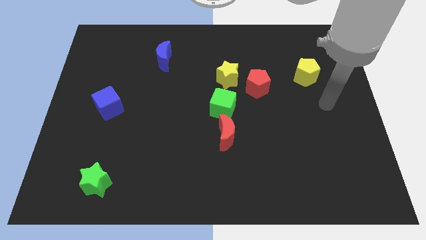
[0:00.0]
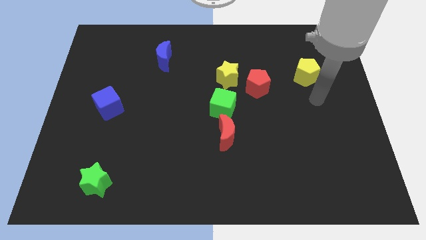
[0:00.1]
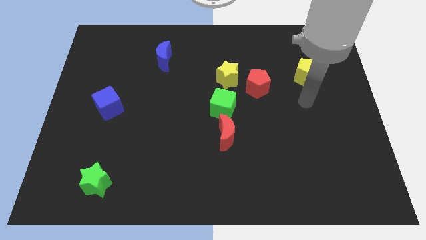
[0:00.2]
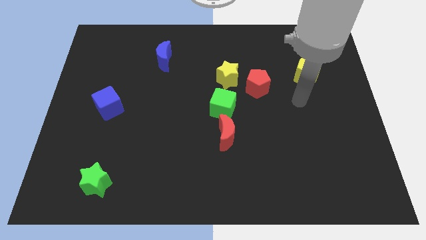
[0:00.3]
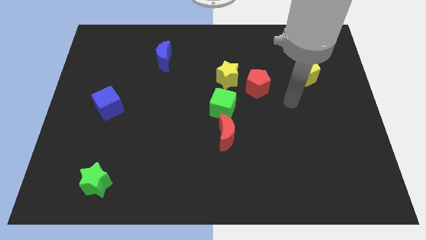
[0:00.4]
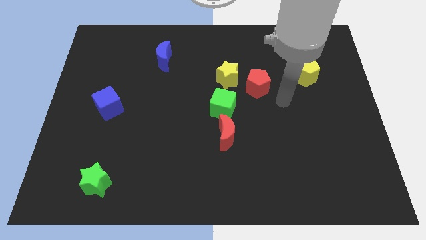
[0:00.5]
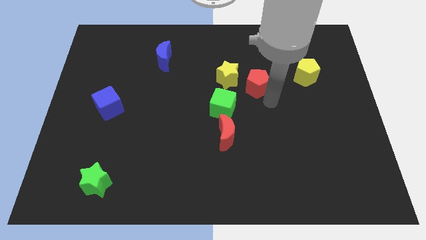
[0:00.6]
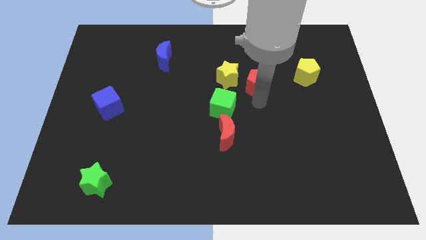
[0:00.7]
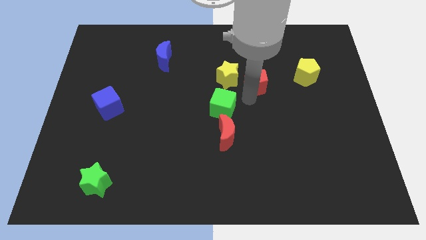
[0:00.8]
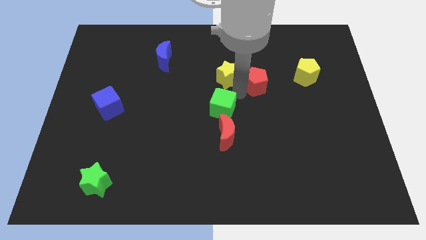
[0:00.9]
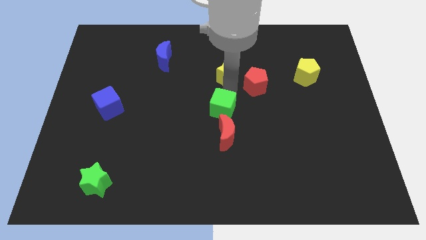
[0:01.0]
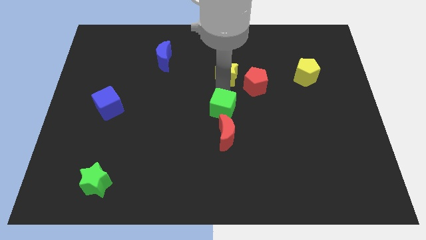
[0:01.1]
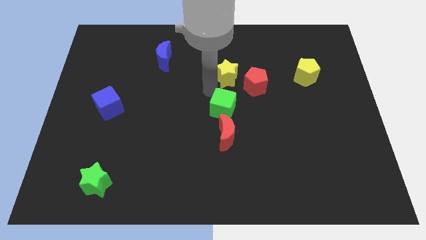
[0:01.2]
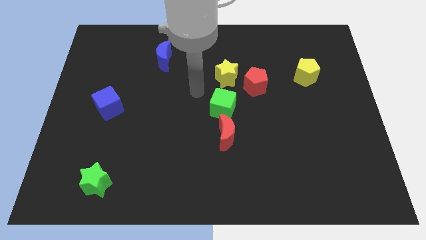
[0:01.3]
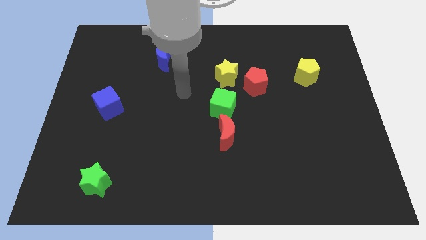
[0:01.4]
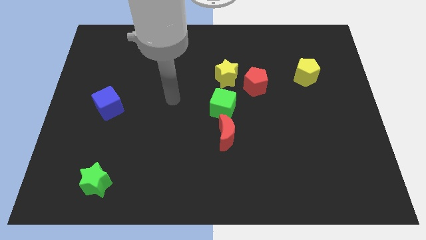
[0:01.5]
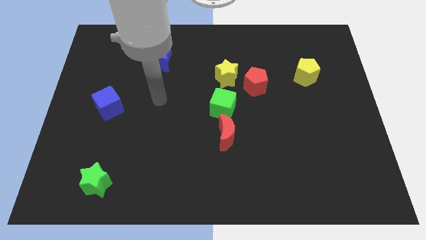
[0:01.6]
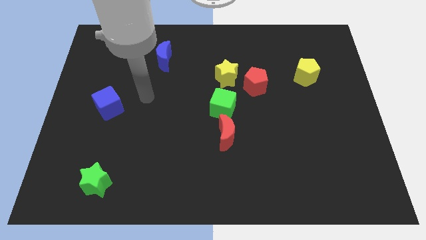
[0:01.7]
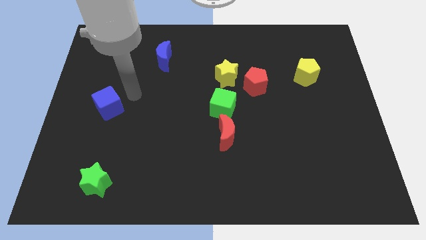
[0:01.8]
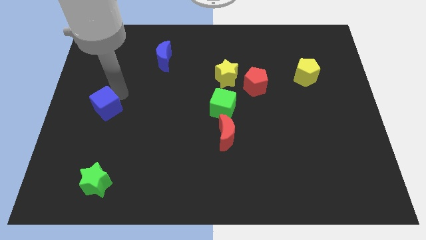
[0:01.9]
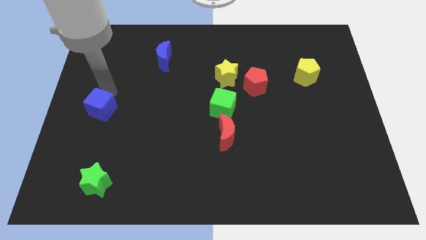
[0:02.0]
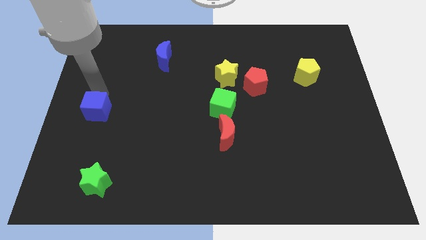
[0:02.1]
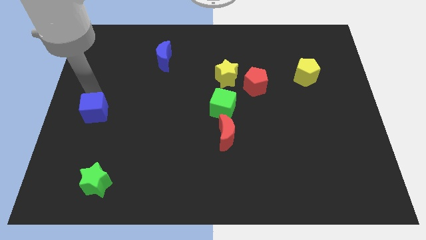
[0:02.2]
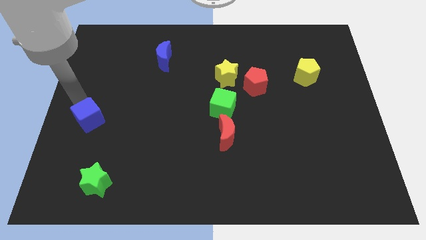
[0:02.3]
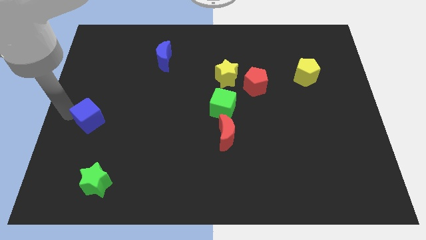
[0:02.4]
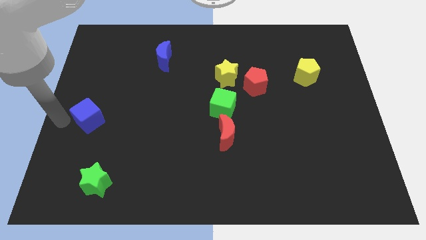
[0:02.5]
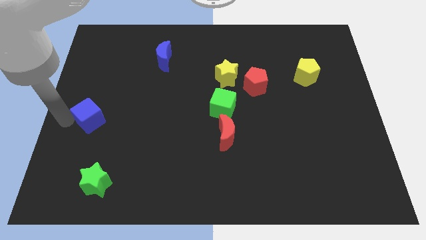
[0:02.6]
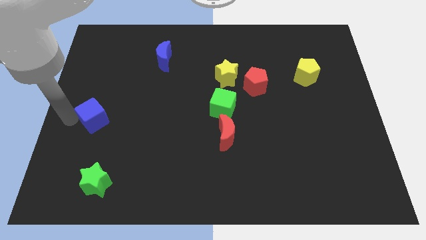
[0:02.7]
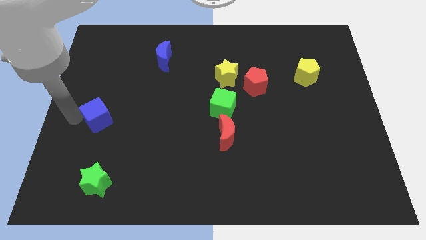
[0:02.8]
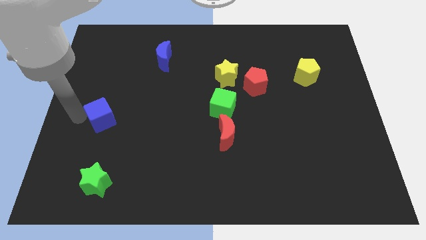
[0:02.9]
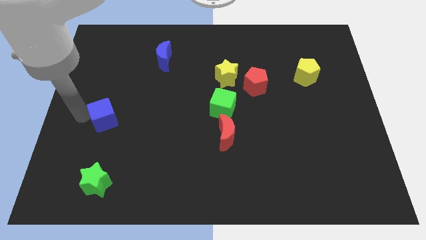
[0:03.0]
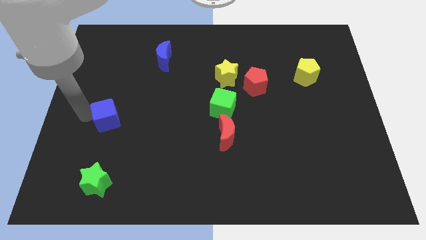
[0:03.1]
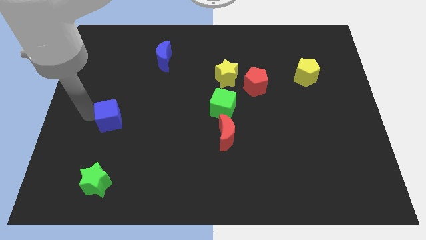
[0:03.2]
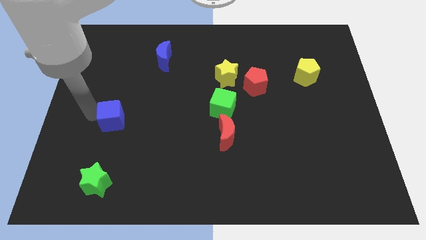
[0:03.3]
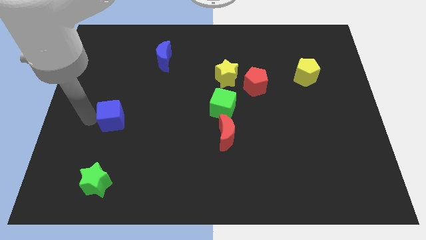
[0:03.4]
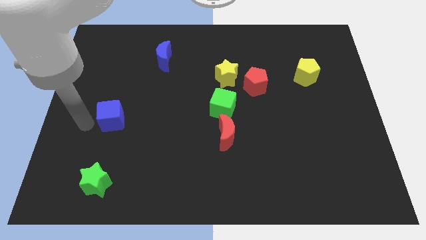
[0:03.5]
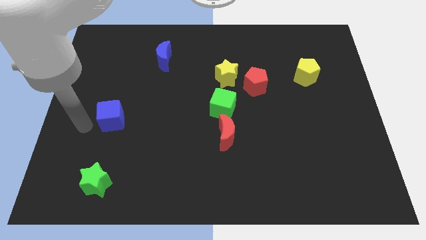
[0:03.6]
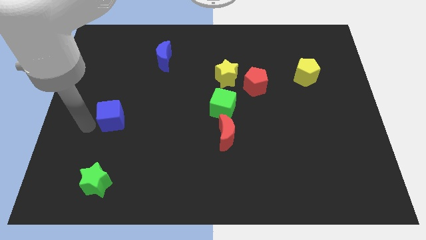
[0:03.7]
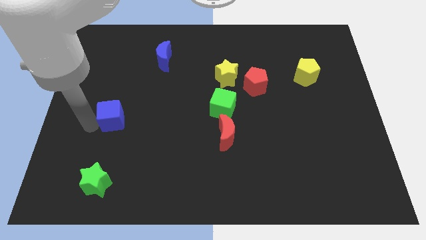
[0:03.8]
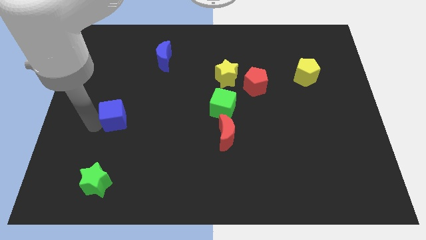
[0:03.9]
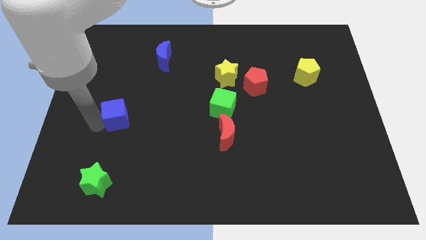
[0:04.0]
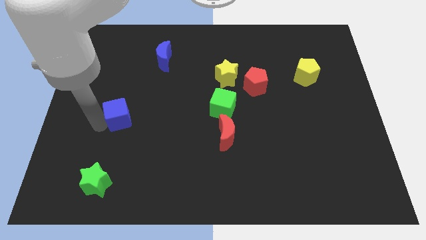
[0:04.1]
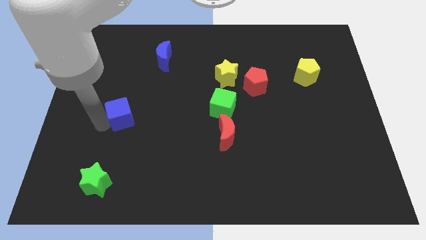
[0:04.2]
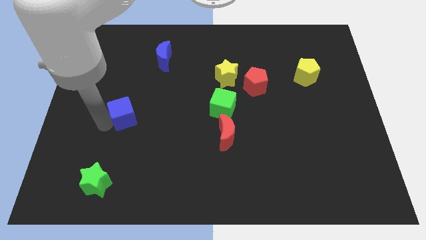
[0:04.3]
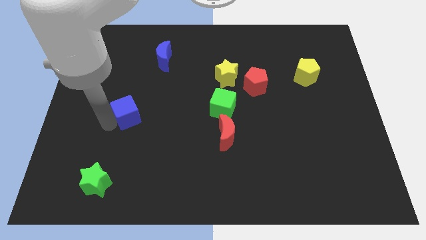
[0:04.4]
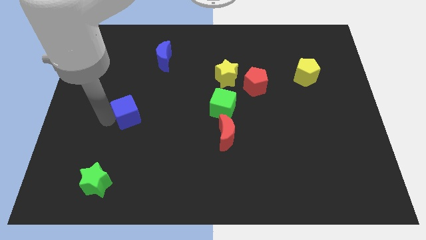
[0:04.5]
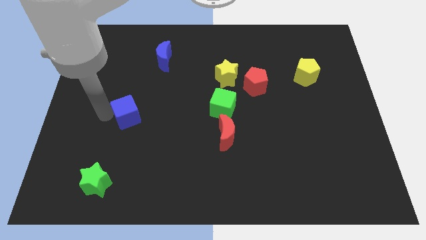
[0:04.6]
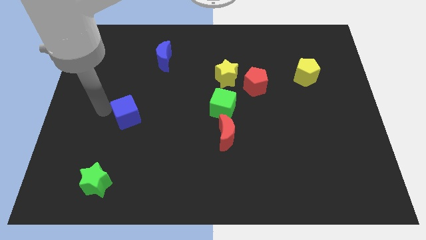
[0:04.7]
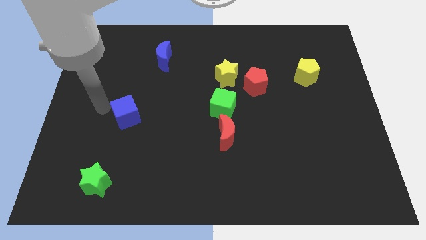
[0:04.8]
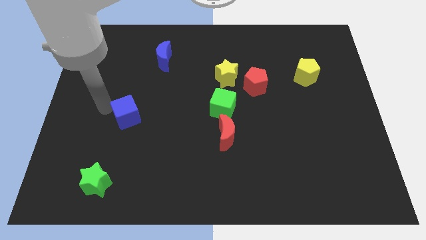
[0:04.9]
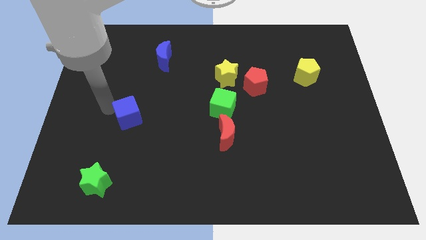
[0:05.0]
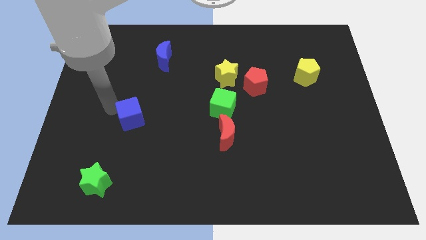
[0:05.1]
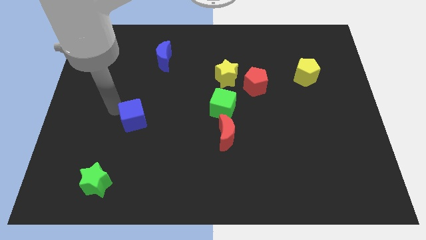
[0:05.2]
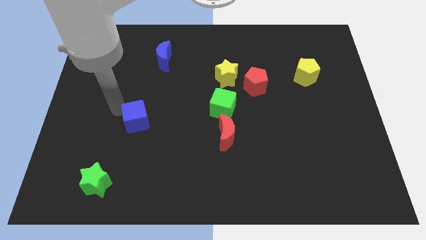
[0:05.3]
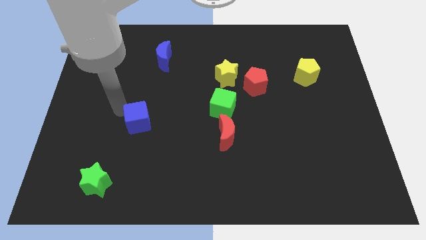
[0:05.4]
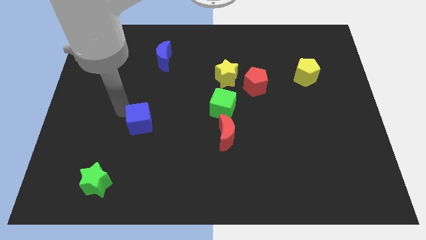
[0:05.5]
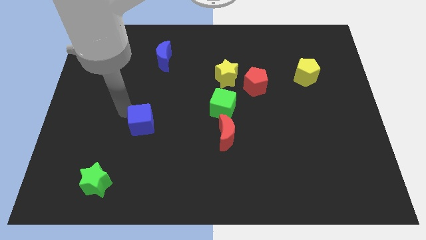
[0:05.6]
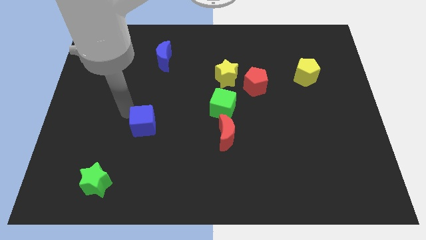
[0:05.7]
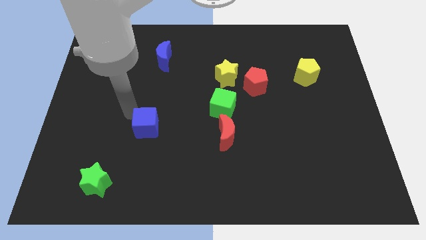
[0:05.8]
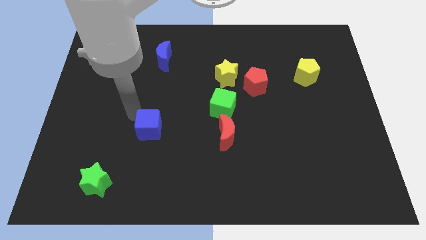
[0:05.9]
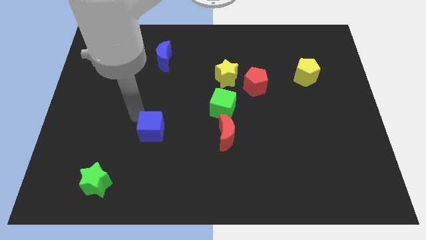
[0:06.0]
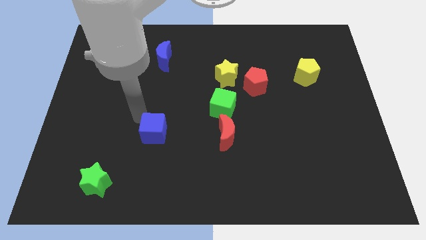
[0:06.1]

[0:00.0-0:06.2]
move the blue cube left of the red moon

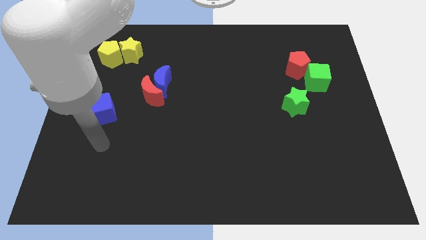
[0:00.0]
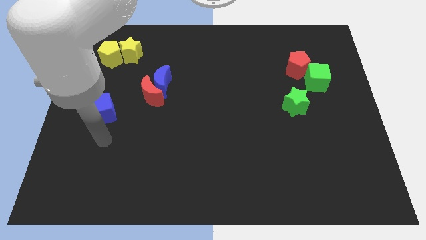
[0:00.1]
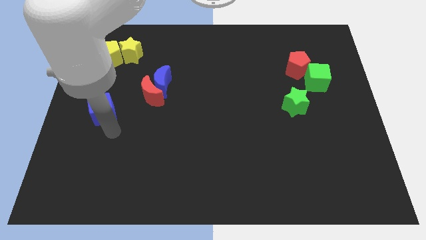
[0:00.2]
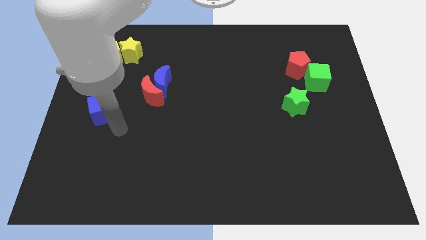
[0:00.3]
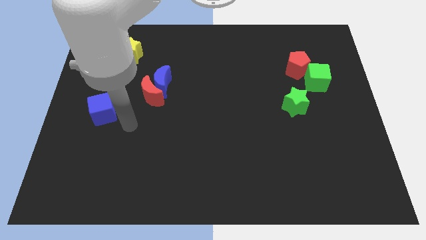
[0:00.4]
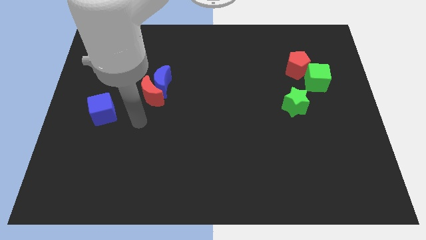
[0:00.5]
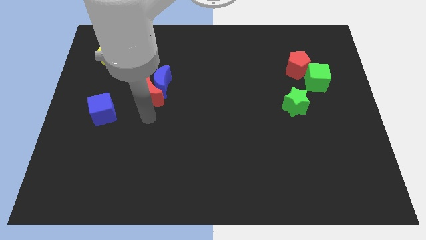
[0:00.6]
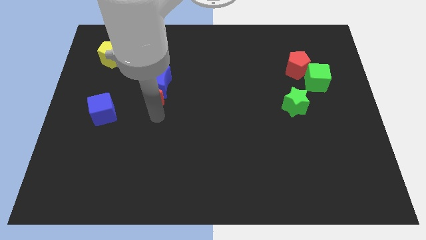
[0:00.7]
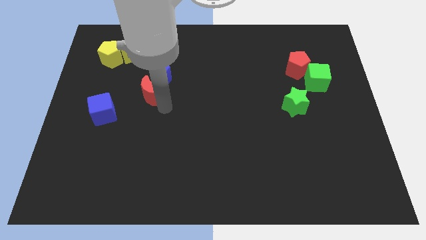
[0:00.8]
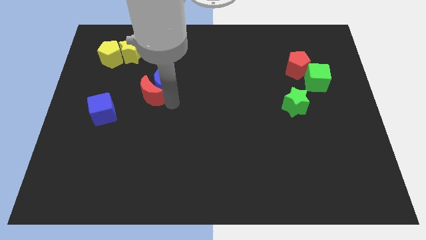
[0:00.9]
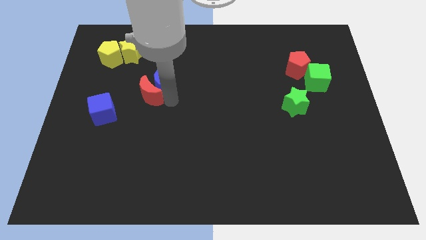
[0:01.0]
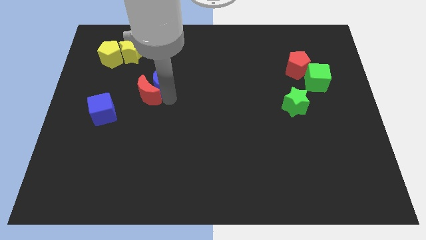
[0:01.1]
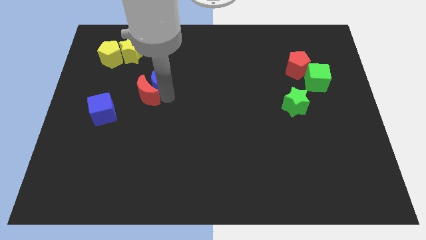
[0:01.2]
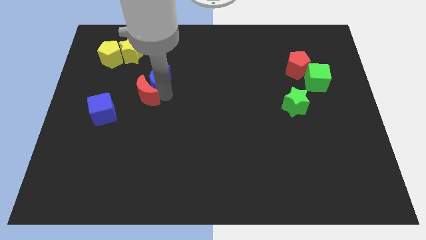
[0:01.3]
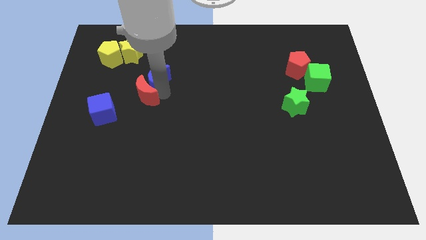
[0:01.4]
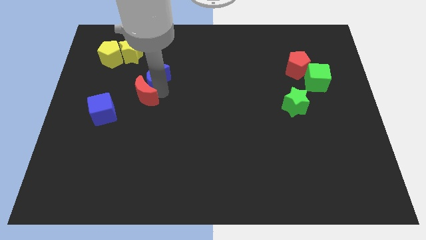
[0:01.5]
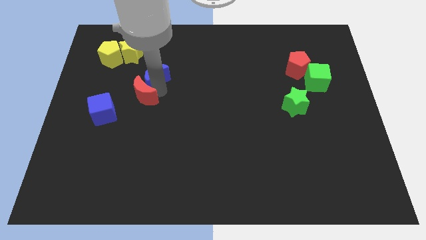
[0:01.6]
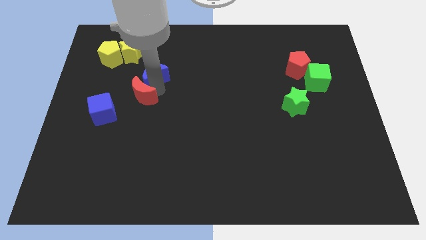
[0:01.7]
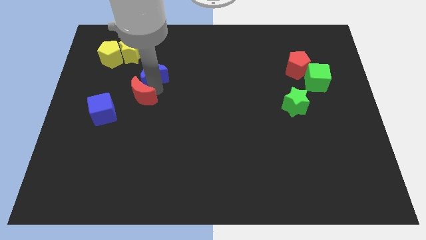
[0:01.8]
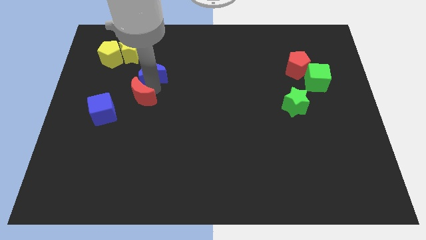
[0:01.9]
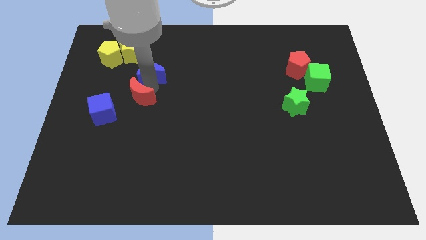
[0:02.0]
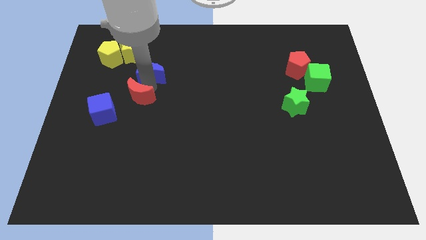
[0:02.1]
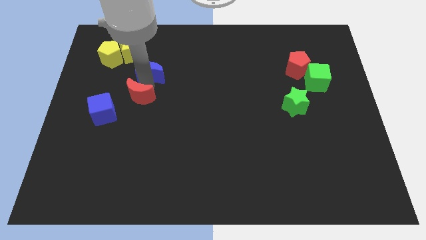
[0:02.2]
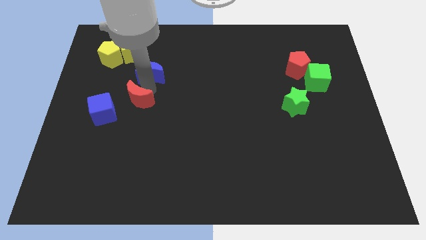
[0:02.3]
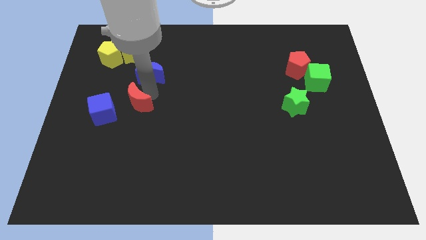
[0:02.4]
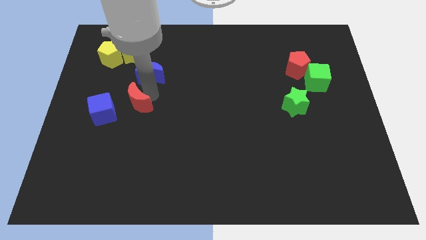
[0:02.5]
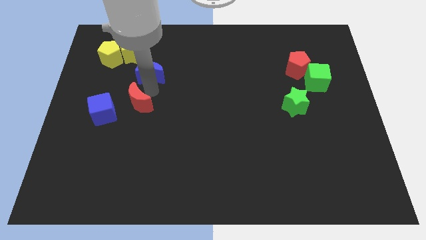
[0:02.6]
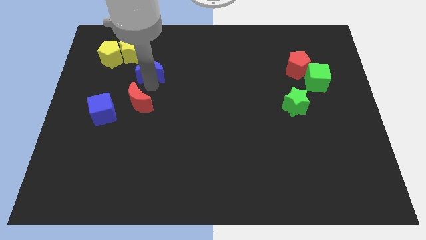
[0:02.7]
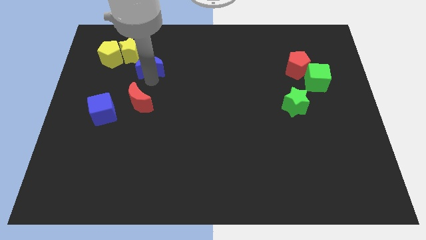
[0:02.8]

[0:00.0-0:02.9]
move the blue moon to the right side of the yellow pentagon
